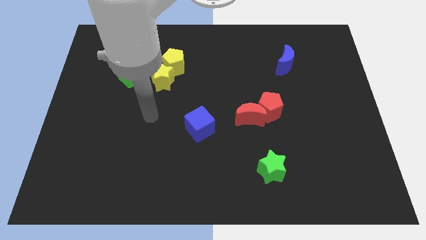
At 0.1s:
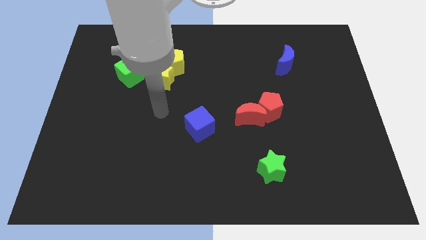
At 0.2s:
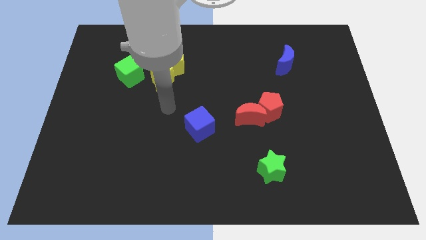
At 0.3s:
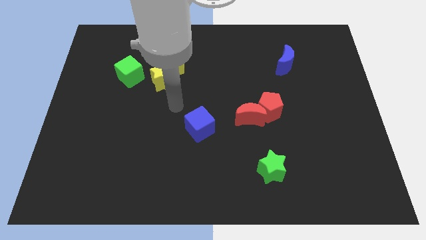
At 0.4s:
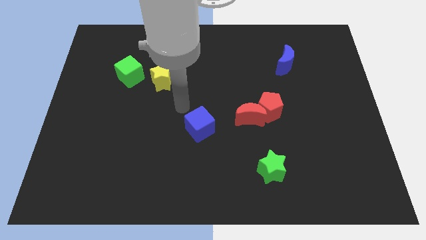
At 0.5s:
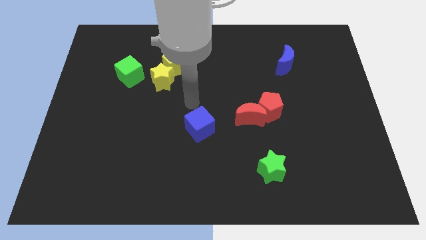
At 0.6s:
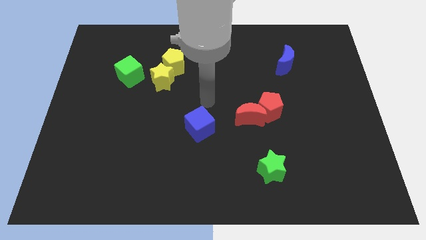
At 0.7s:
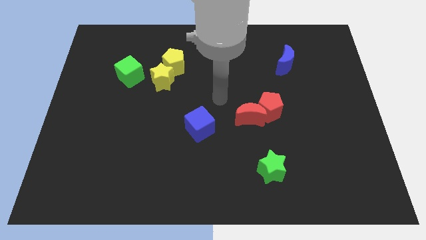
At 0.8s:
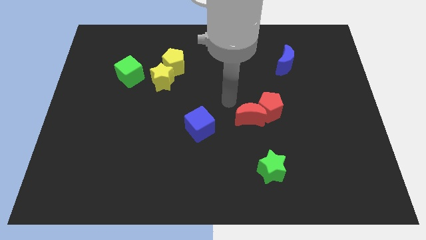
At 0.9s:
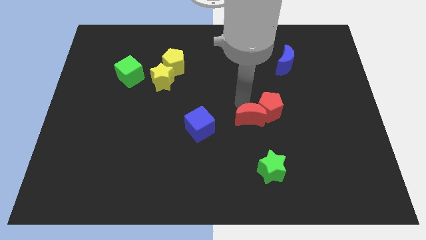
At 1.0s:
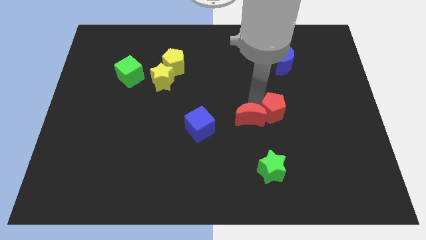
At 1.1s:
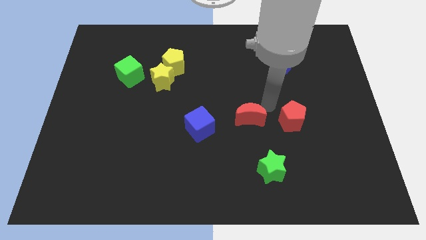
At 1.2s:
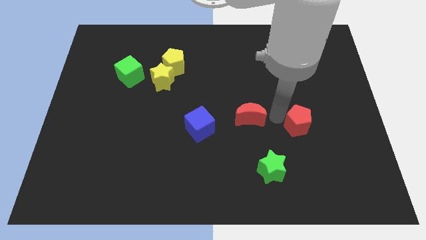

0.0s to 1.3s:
separate the red moon from the red pentagon

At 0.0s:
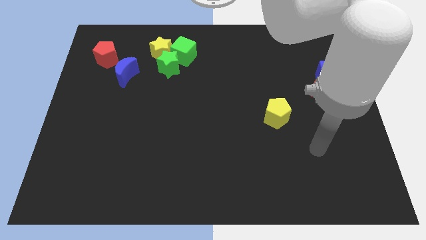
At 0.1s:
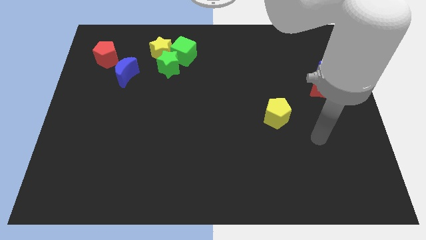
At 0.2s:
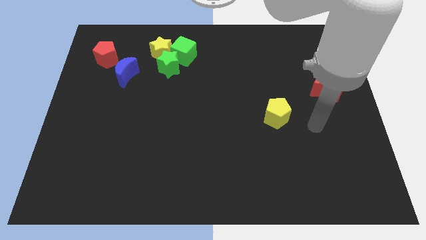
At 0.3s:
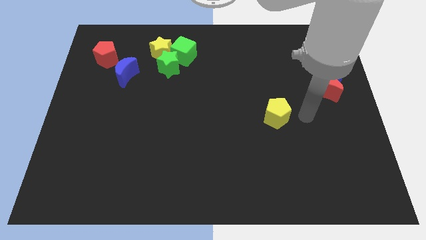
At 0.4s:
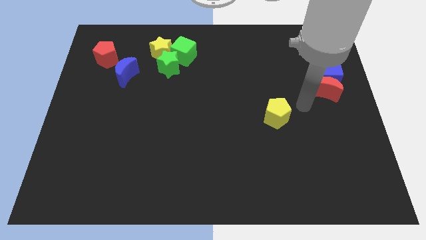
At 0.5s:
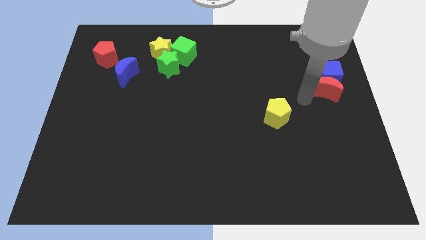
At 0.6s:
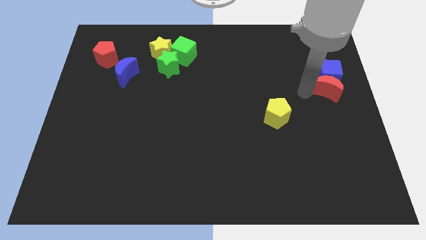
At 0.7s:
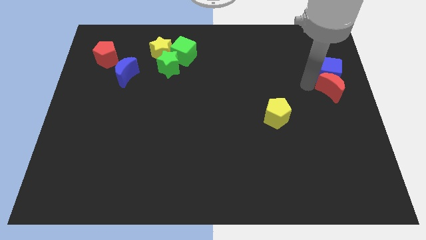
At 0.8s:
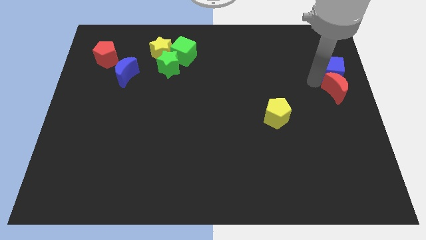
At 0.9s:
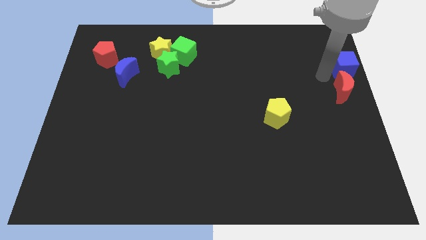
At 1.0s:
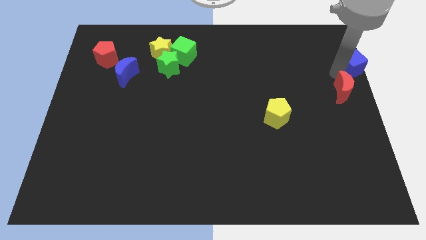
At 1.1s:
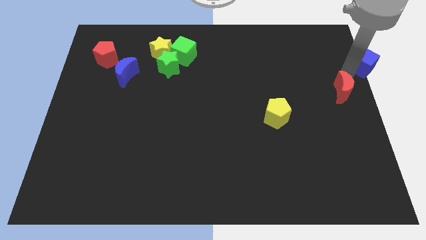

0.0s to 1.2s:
move the red moon away from the blue cube

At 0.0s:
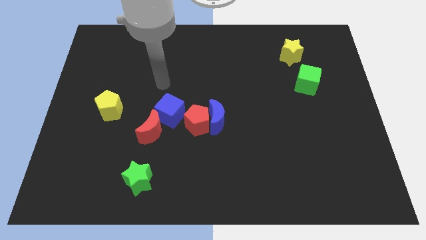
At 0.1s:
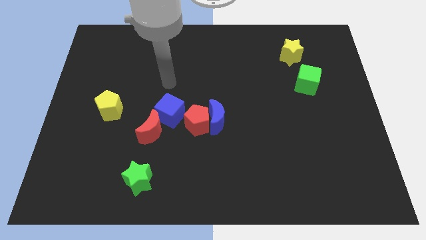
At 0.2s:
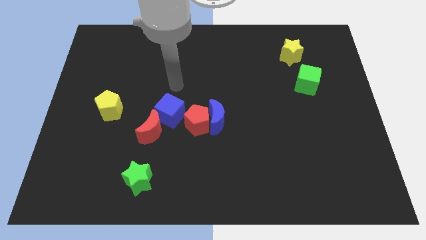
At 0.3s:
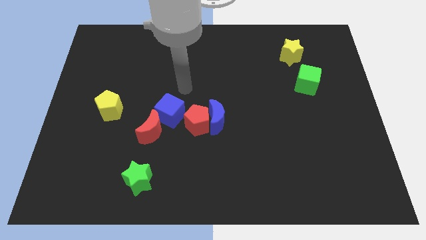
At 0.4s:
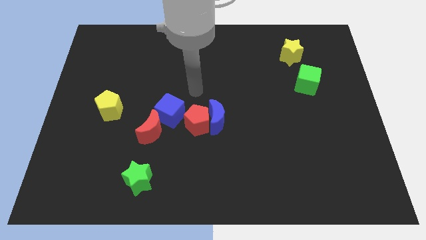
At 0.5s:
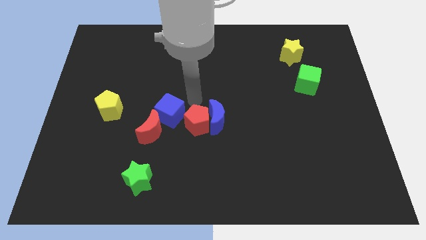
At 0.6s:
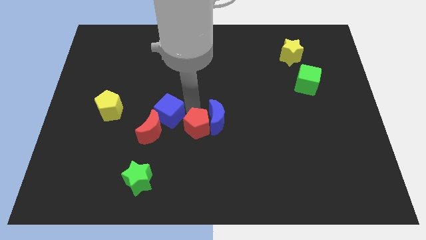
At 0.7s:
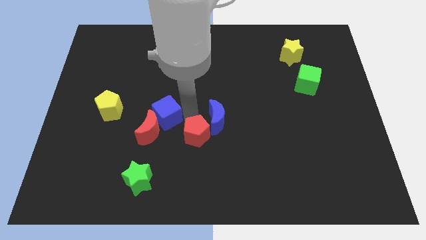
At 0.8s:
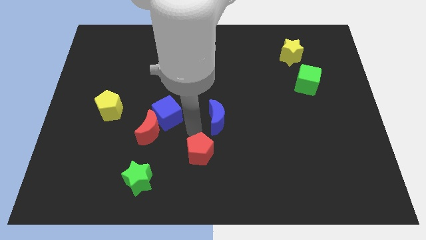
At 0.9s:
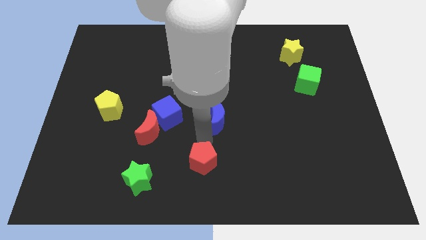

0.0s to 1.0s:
separate the blue moon from the red pentagon

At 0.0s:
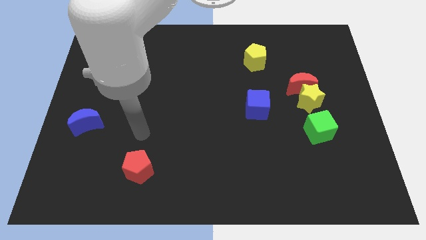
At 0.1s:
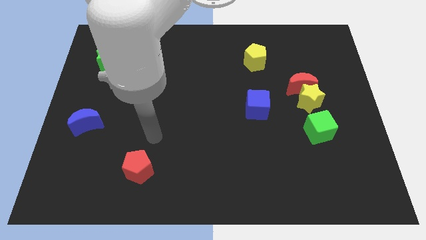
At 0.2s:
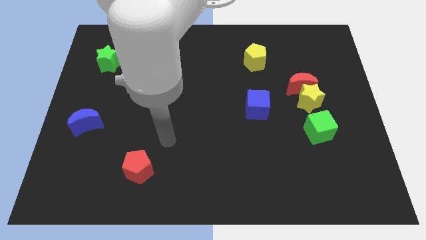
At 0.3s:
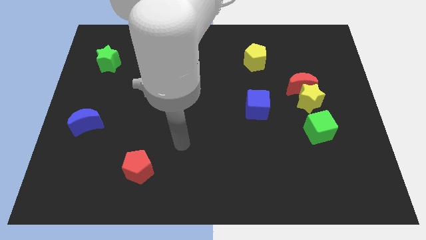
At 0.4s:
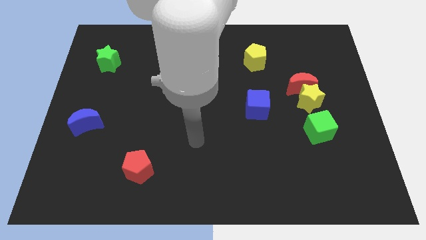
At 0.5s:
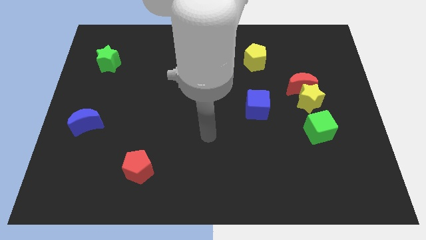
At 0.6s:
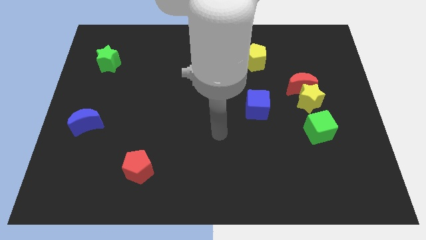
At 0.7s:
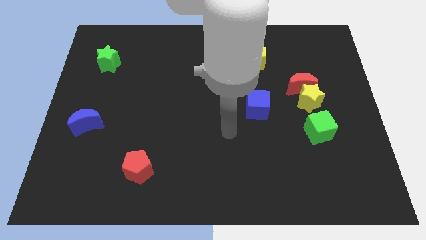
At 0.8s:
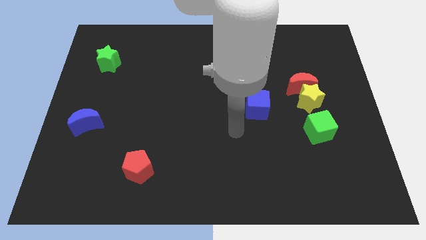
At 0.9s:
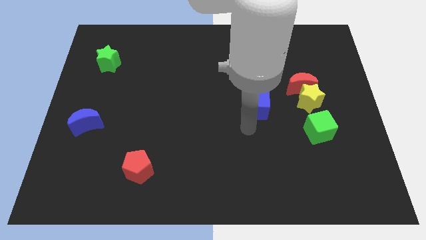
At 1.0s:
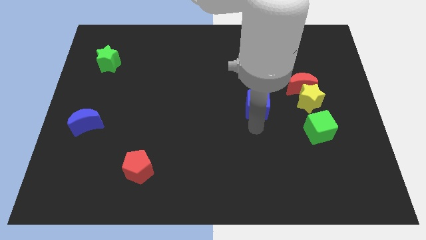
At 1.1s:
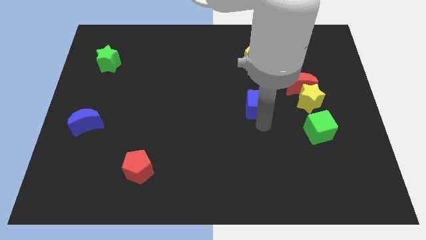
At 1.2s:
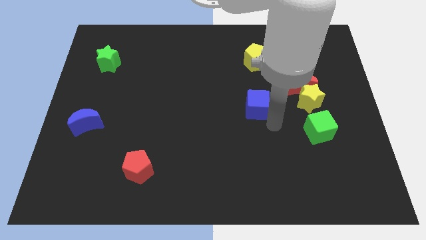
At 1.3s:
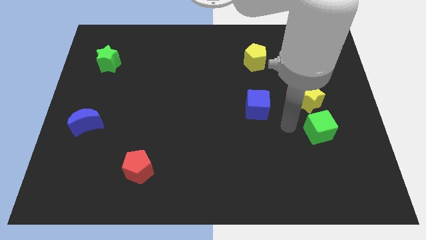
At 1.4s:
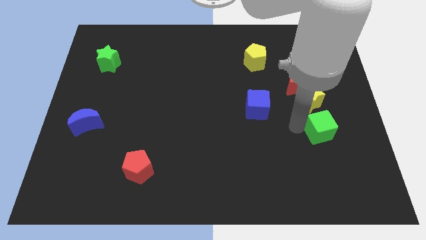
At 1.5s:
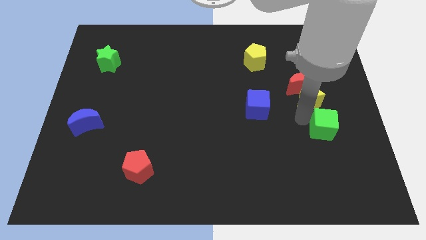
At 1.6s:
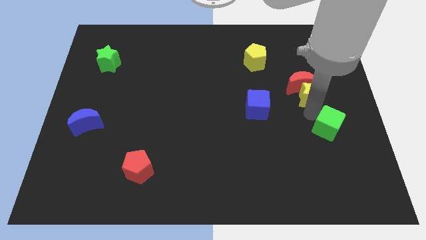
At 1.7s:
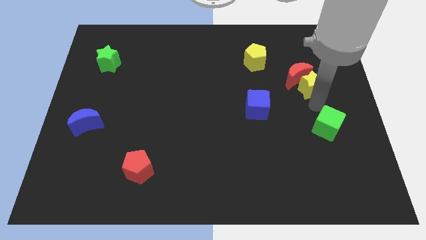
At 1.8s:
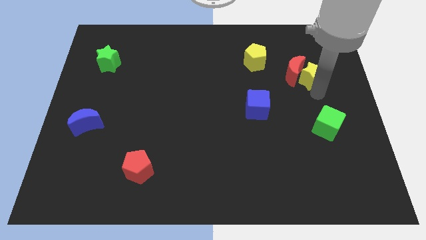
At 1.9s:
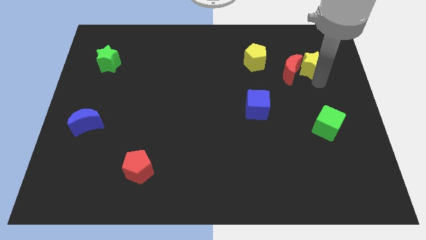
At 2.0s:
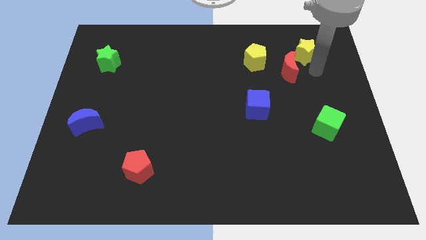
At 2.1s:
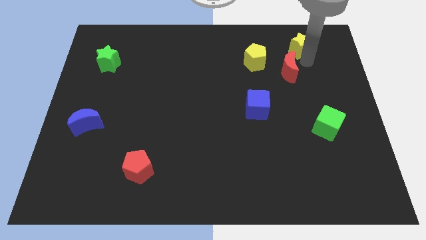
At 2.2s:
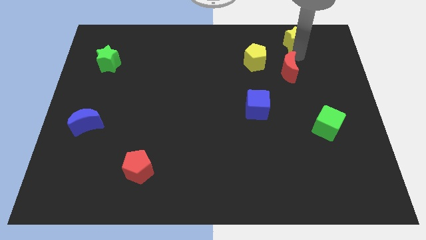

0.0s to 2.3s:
move the red moon away from the yellow star

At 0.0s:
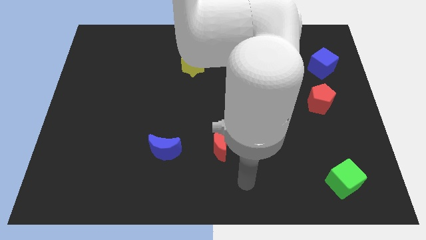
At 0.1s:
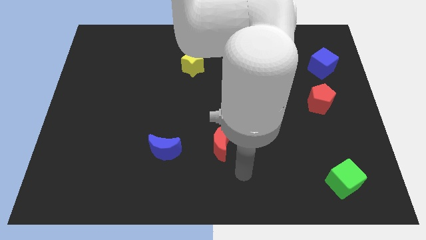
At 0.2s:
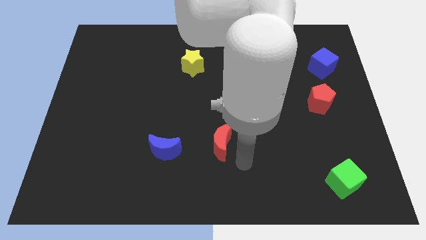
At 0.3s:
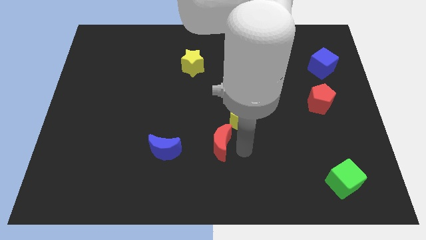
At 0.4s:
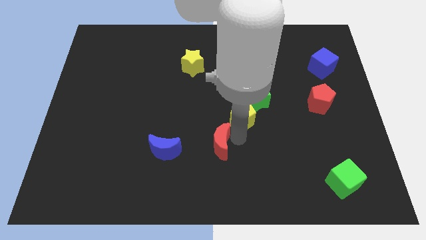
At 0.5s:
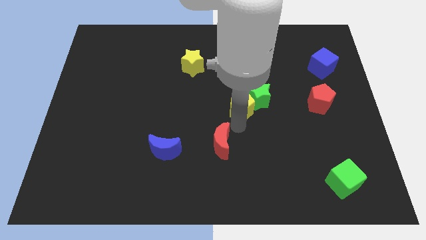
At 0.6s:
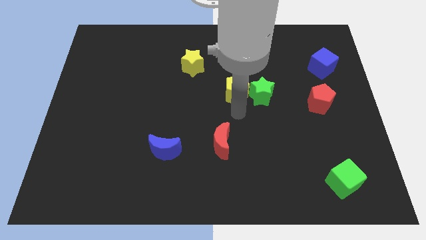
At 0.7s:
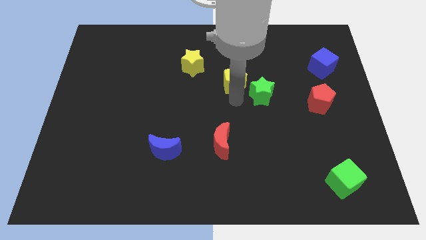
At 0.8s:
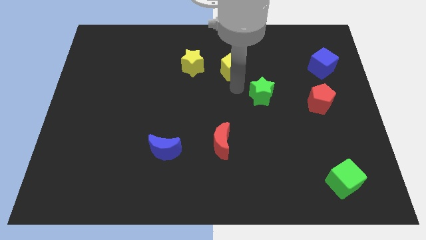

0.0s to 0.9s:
pull the green star apart from the yellow pentagon

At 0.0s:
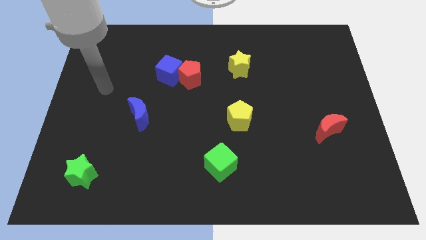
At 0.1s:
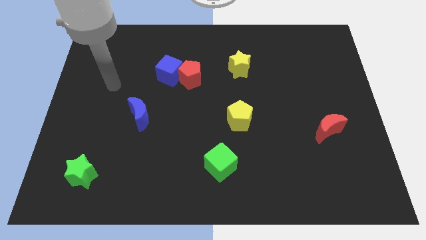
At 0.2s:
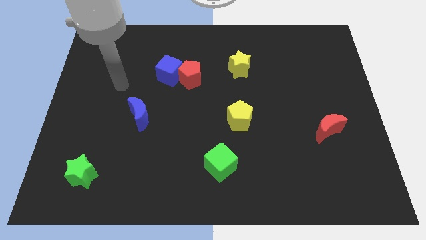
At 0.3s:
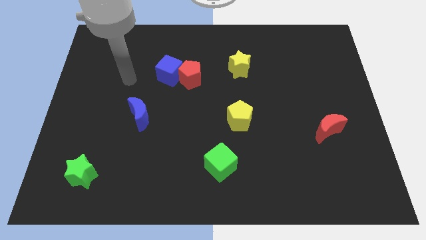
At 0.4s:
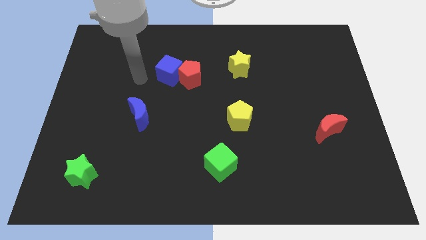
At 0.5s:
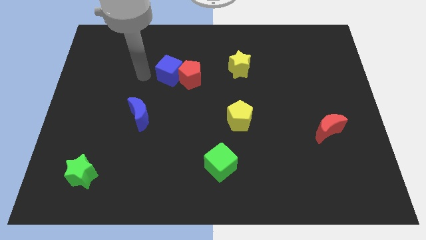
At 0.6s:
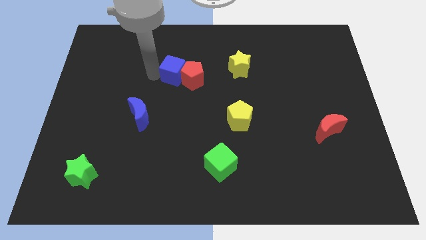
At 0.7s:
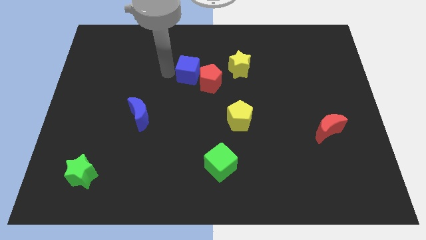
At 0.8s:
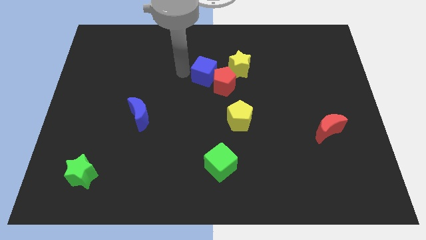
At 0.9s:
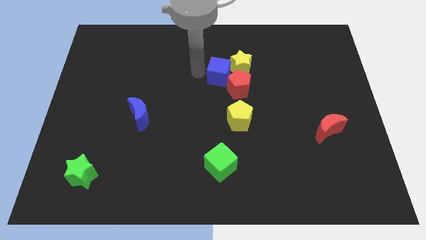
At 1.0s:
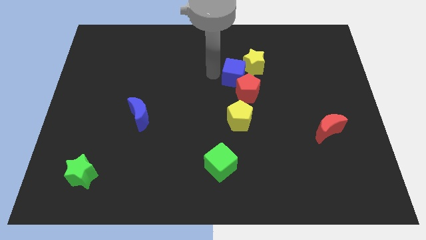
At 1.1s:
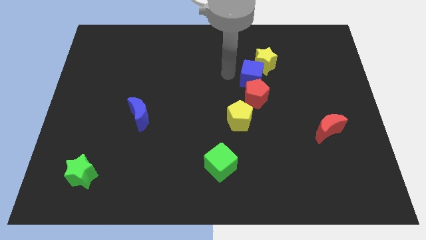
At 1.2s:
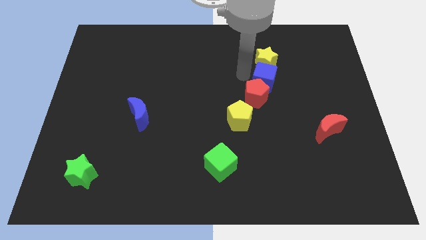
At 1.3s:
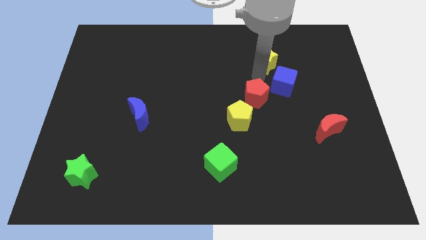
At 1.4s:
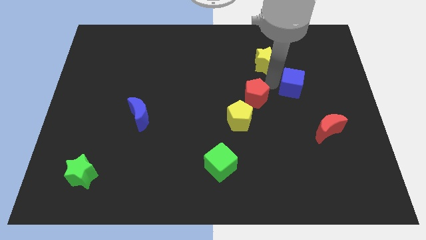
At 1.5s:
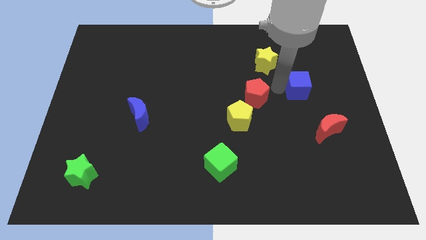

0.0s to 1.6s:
pull the red pentagon apart from the blue cube

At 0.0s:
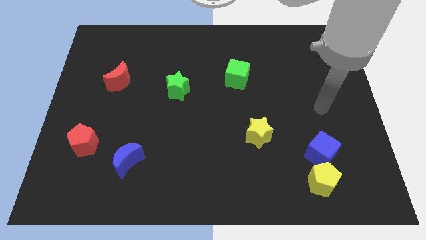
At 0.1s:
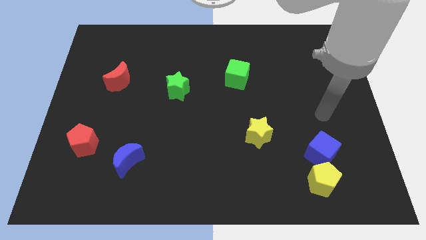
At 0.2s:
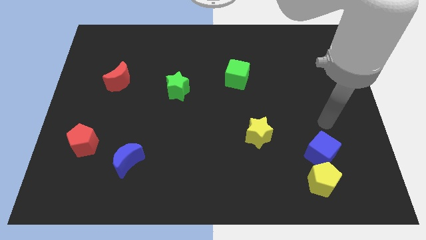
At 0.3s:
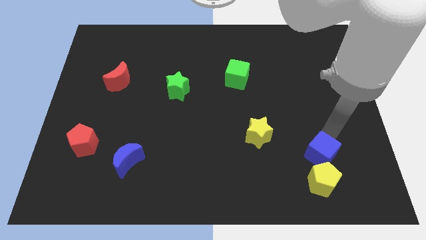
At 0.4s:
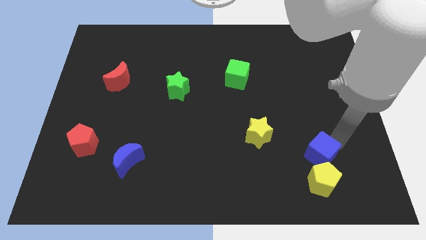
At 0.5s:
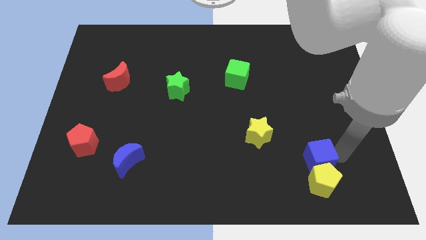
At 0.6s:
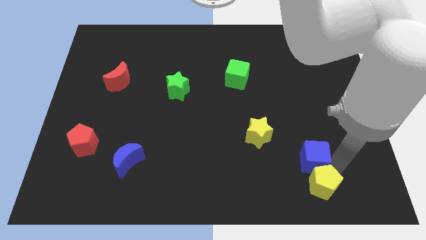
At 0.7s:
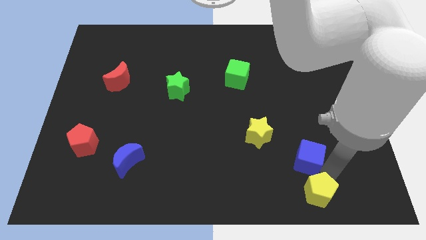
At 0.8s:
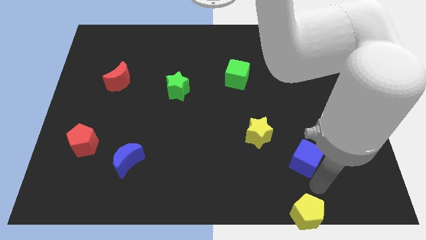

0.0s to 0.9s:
separate the blue cube from the yellow pentagon

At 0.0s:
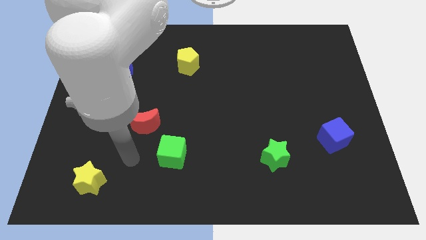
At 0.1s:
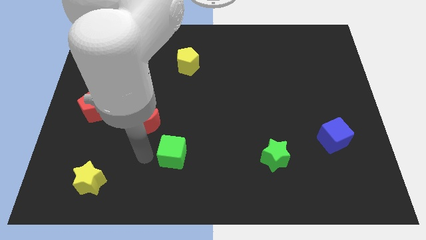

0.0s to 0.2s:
pull the red moon apart from the green cube

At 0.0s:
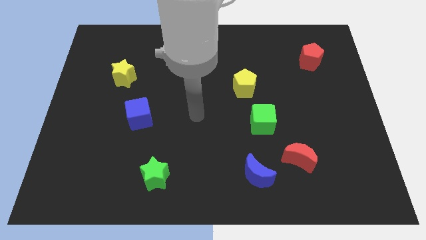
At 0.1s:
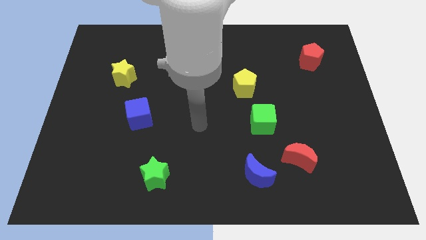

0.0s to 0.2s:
pull the red moon apart from the blue moon
